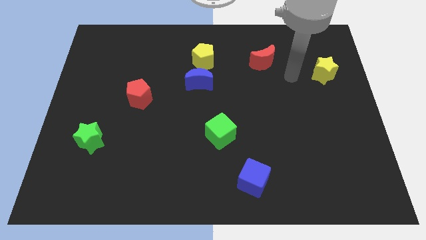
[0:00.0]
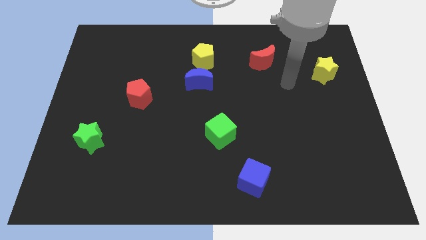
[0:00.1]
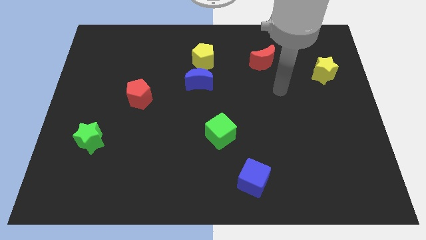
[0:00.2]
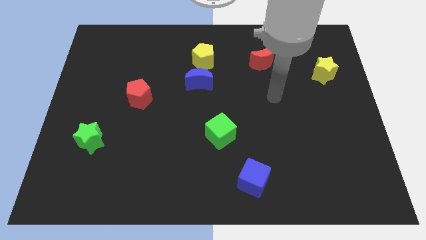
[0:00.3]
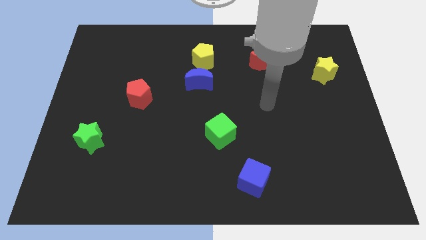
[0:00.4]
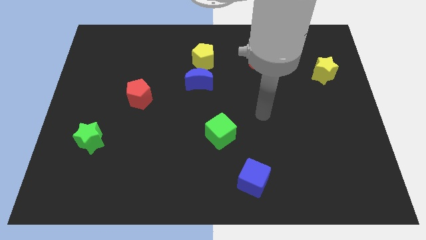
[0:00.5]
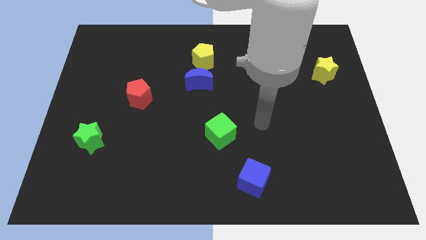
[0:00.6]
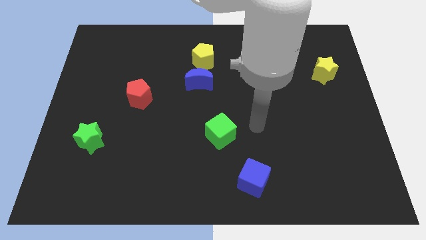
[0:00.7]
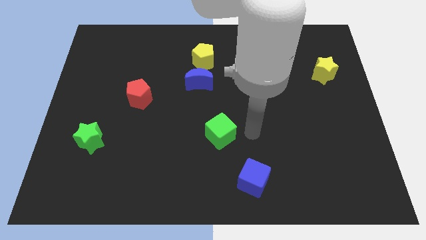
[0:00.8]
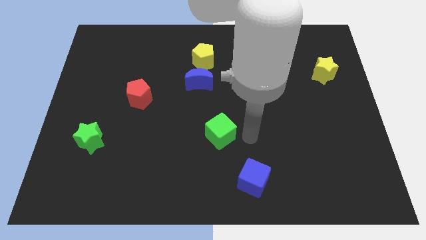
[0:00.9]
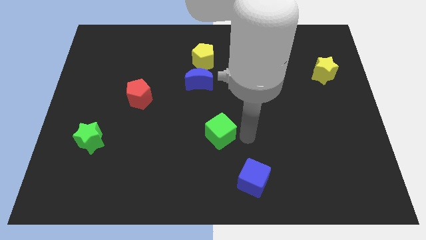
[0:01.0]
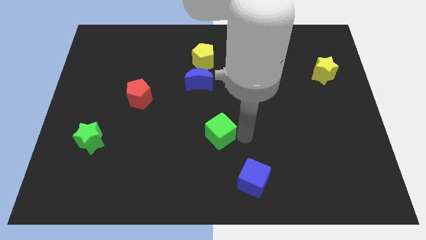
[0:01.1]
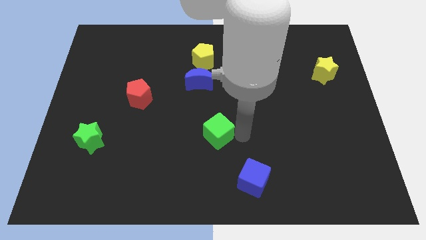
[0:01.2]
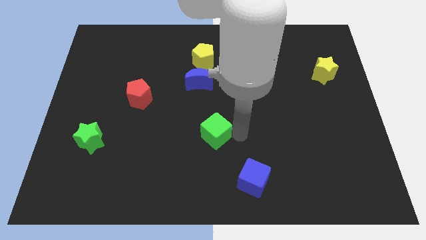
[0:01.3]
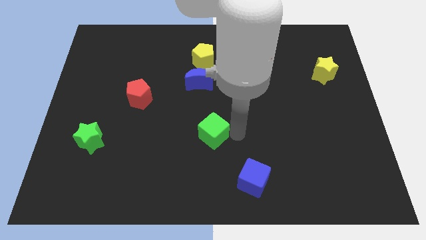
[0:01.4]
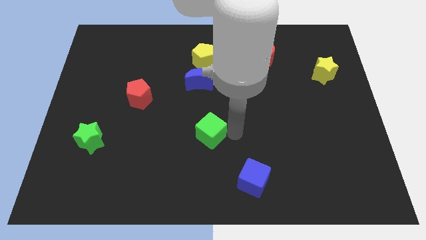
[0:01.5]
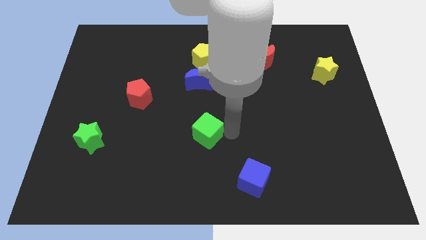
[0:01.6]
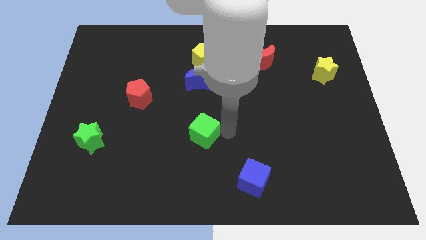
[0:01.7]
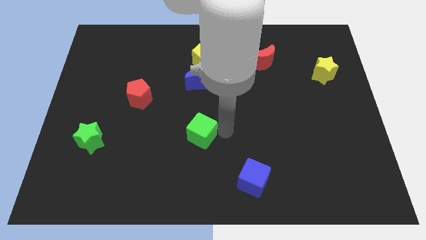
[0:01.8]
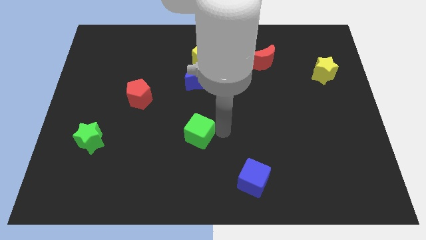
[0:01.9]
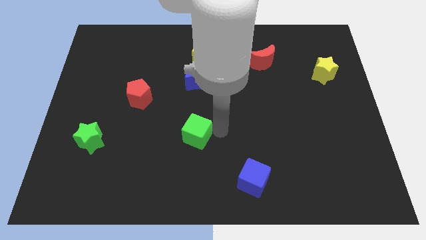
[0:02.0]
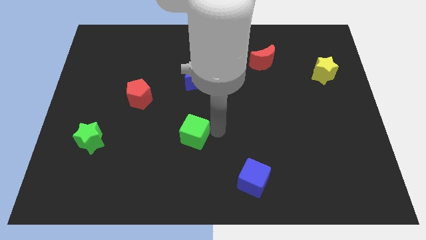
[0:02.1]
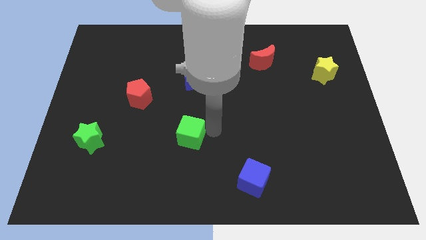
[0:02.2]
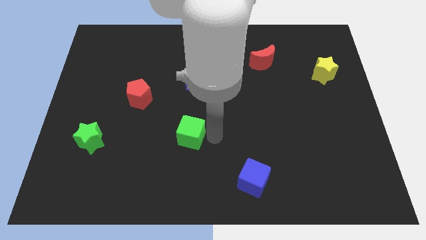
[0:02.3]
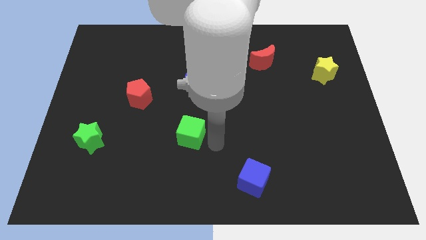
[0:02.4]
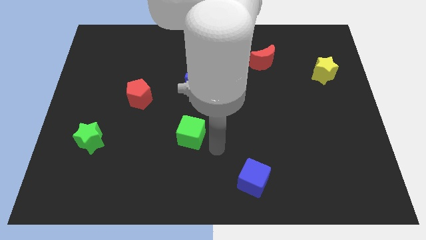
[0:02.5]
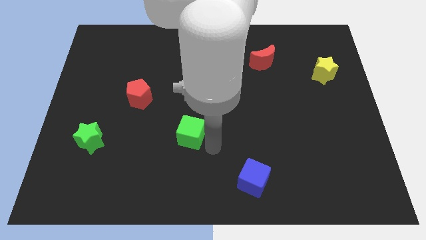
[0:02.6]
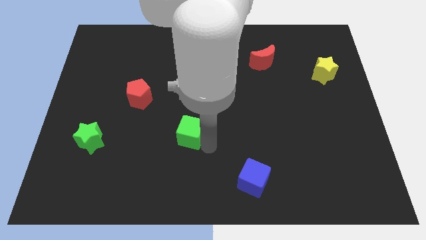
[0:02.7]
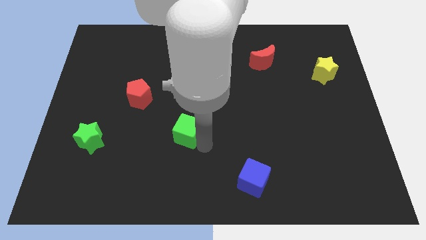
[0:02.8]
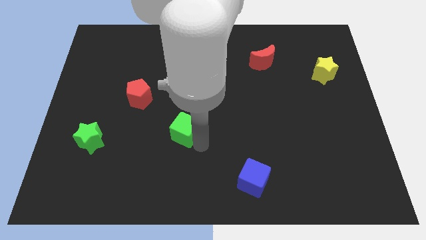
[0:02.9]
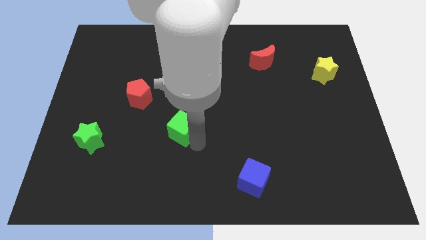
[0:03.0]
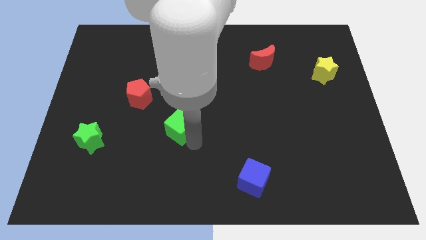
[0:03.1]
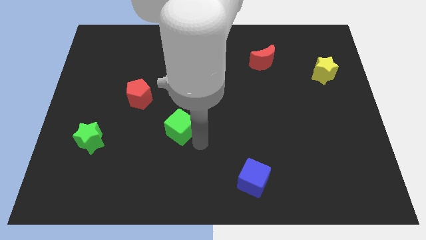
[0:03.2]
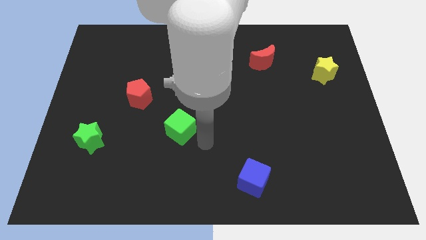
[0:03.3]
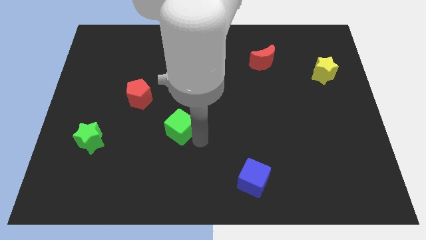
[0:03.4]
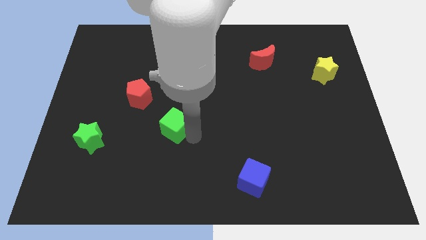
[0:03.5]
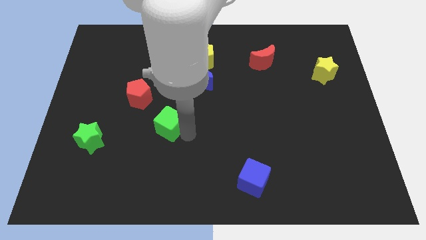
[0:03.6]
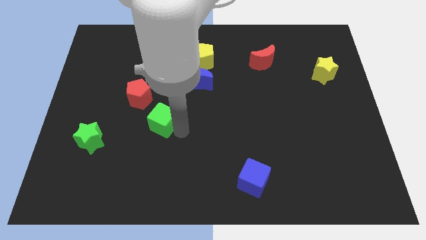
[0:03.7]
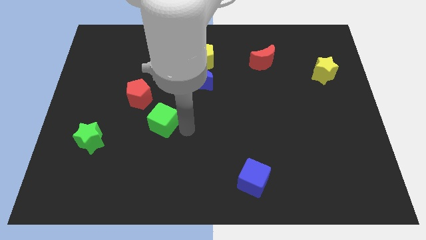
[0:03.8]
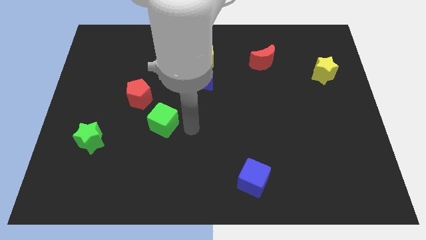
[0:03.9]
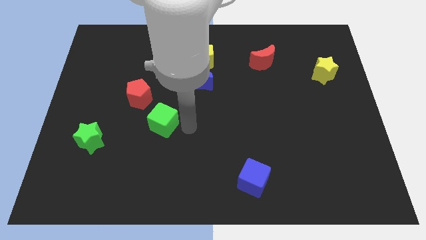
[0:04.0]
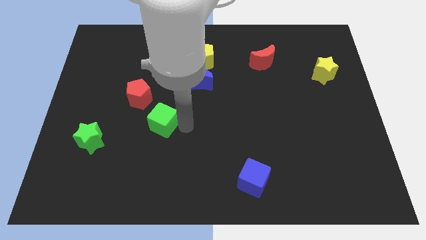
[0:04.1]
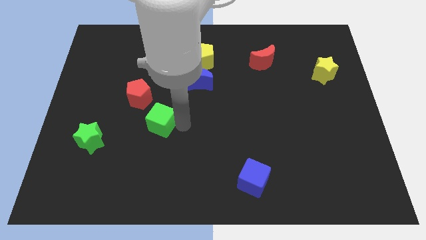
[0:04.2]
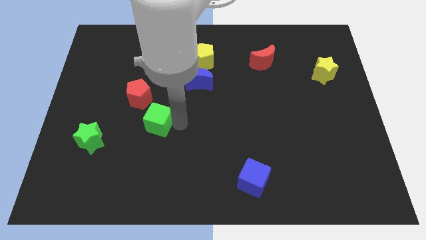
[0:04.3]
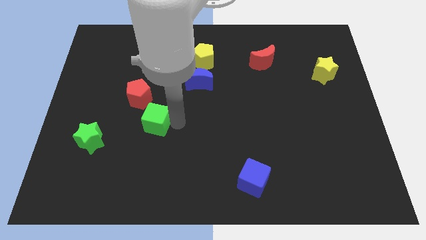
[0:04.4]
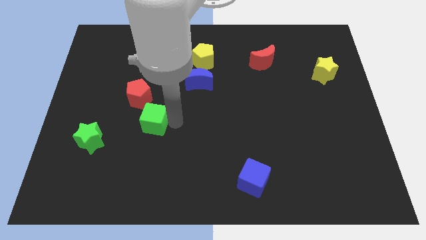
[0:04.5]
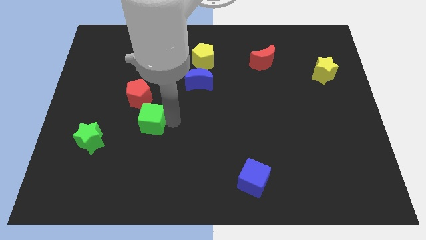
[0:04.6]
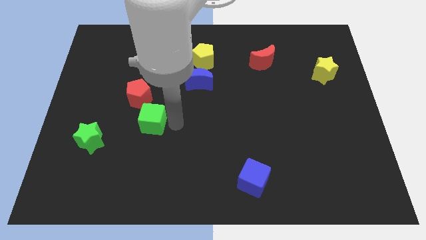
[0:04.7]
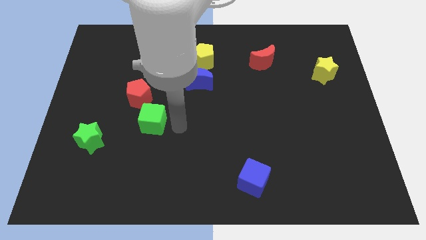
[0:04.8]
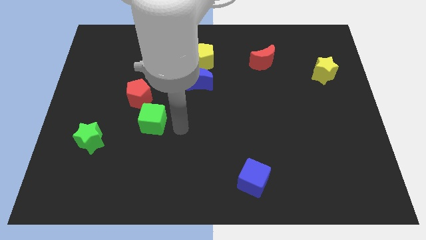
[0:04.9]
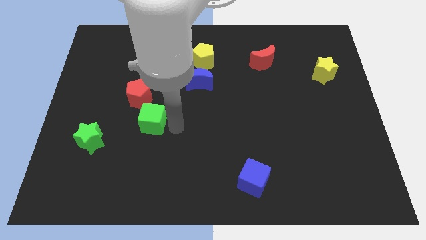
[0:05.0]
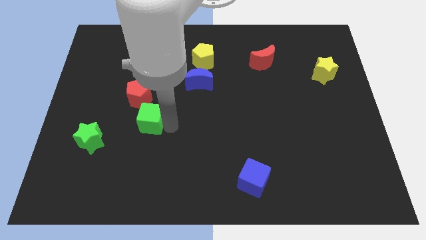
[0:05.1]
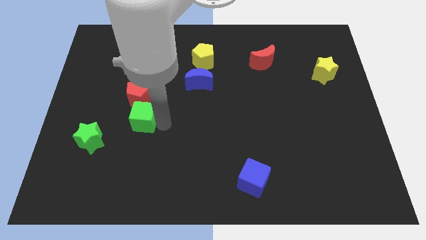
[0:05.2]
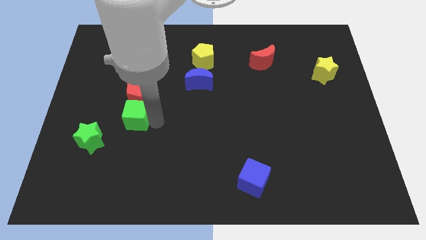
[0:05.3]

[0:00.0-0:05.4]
slide the green cube diagonally up and to the right of the green star

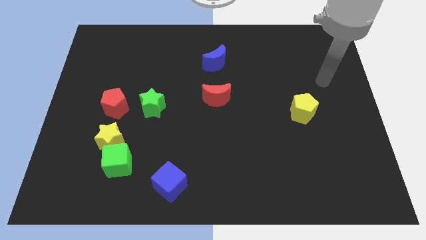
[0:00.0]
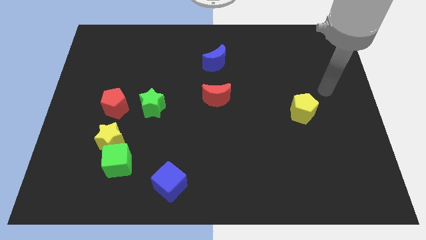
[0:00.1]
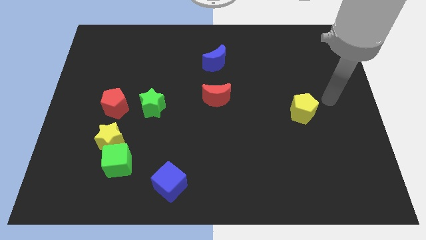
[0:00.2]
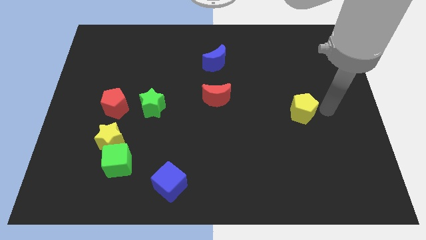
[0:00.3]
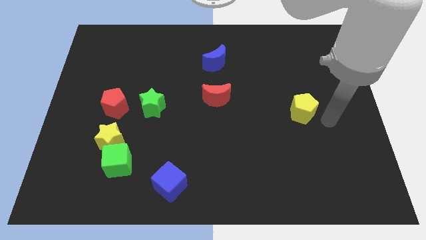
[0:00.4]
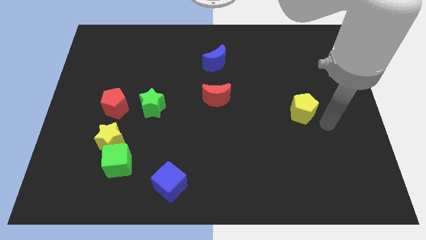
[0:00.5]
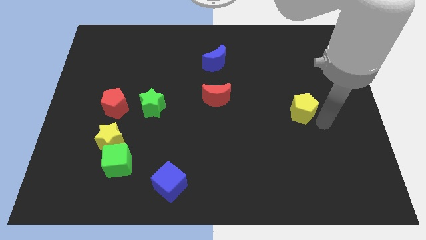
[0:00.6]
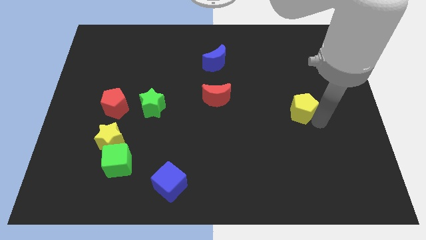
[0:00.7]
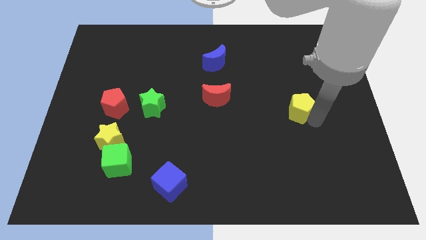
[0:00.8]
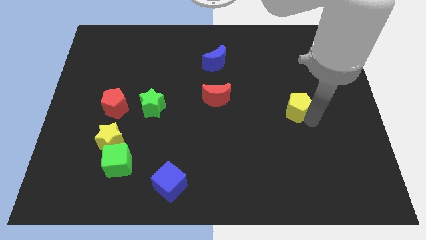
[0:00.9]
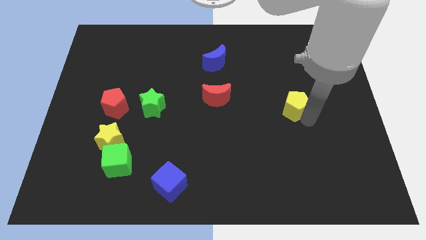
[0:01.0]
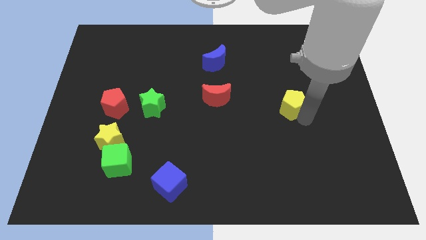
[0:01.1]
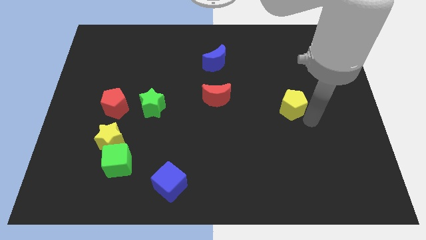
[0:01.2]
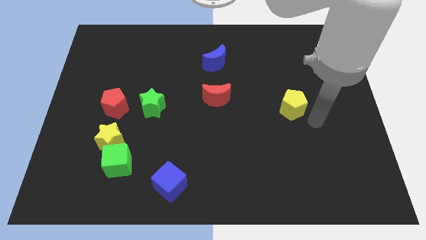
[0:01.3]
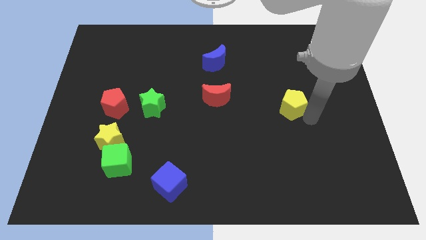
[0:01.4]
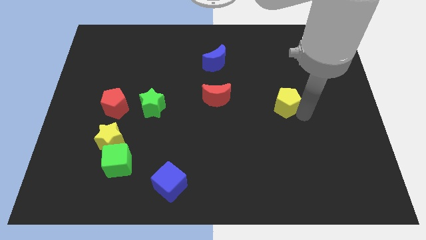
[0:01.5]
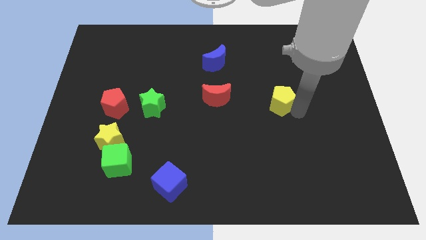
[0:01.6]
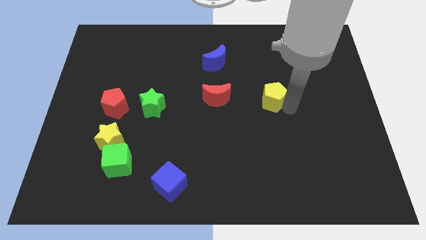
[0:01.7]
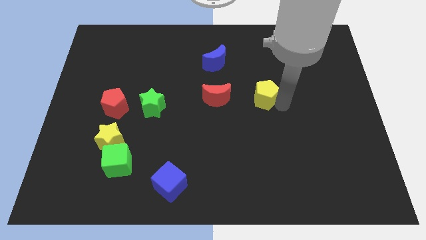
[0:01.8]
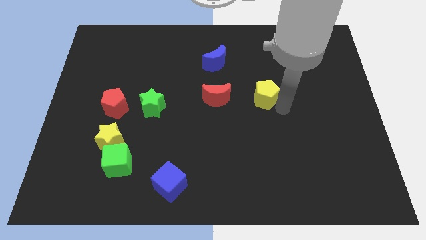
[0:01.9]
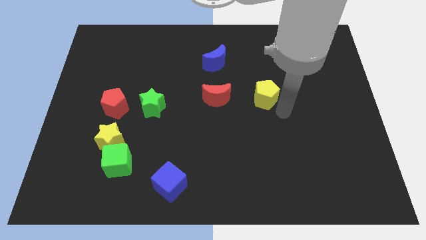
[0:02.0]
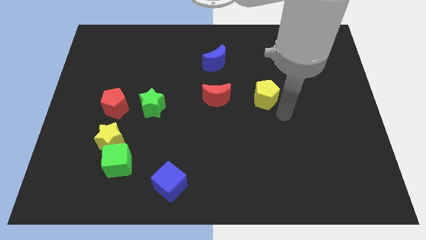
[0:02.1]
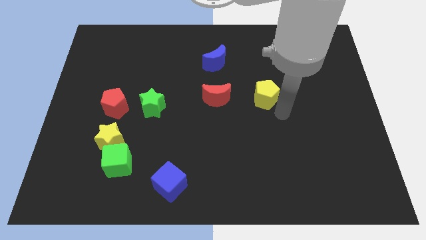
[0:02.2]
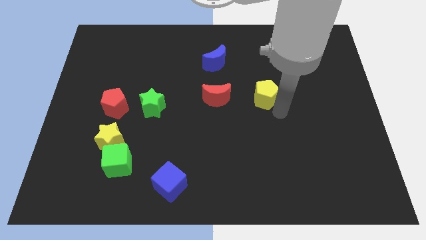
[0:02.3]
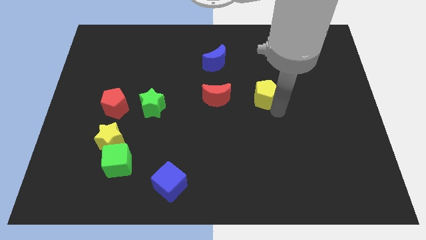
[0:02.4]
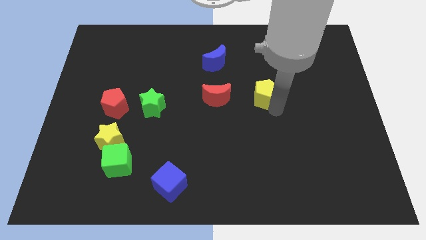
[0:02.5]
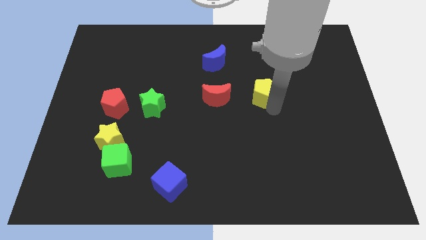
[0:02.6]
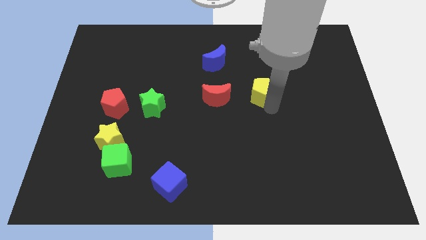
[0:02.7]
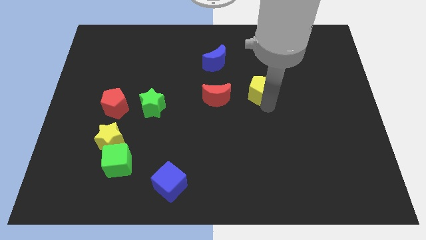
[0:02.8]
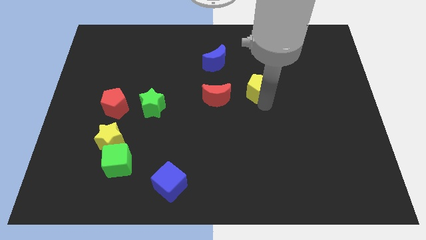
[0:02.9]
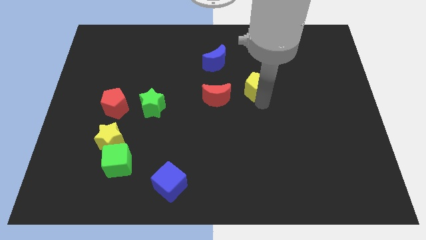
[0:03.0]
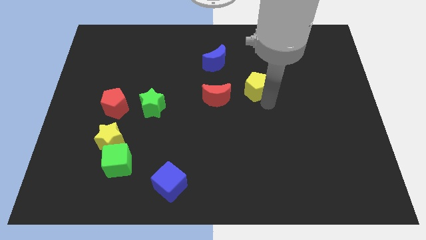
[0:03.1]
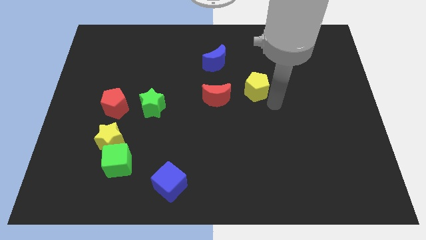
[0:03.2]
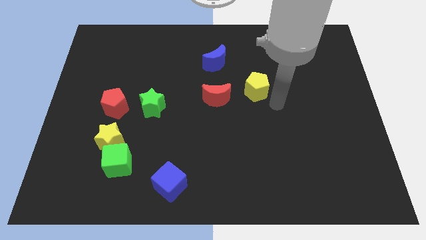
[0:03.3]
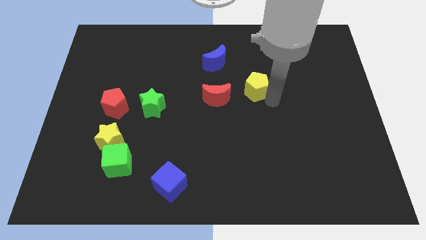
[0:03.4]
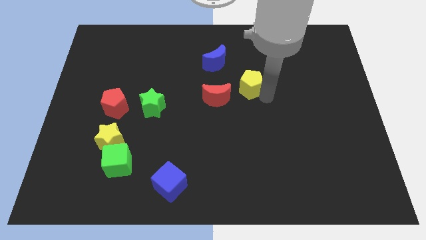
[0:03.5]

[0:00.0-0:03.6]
push the yellow pentagon to the bottom right side of the blue moon
